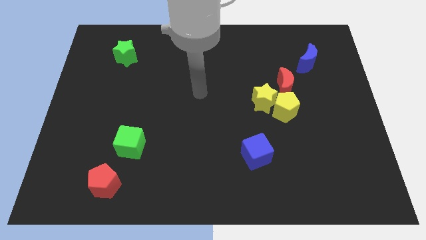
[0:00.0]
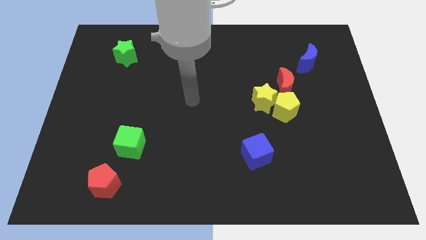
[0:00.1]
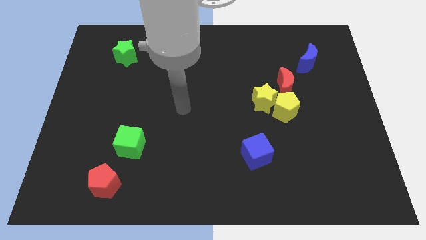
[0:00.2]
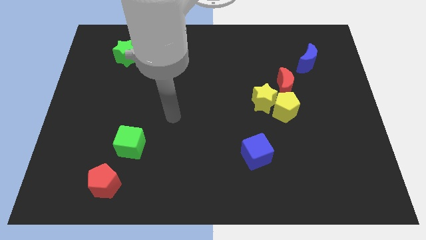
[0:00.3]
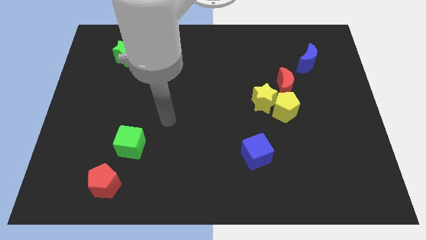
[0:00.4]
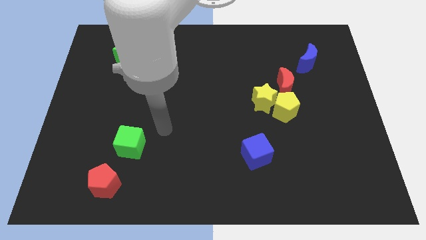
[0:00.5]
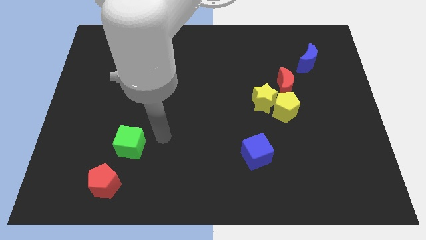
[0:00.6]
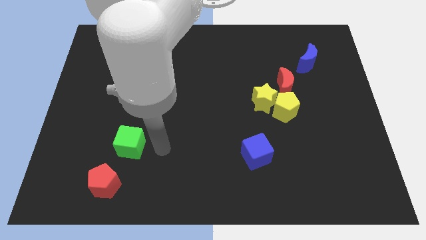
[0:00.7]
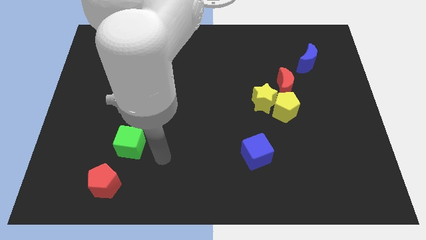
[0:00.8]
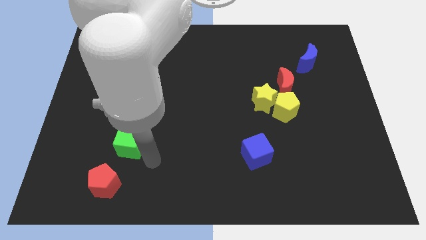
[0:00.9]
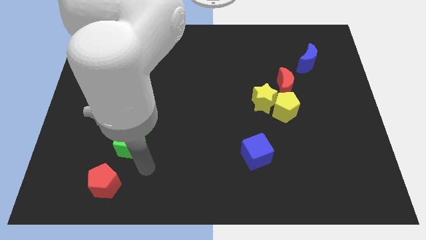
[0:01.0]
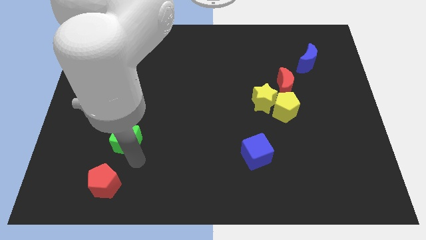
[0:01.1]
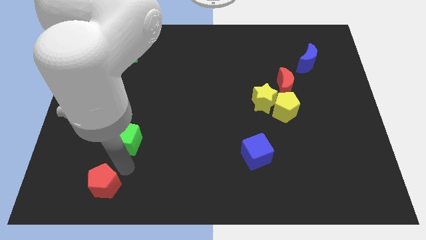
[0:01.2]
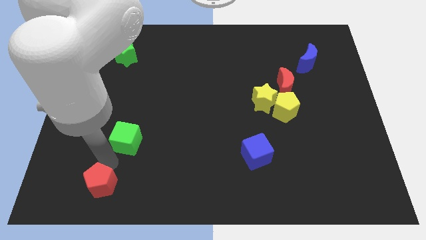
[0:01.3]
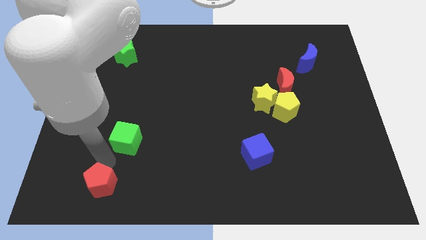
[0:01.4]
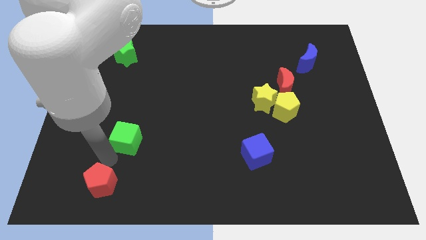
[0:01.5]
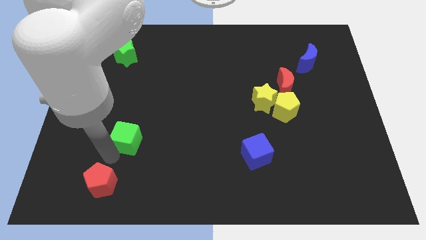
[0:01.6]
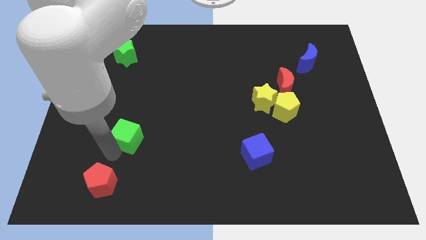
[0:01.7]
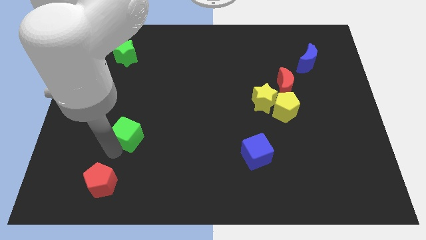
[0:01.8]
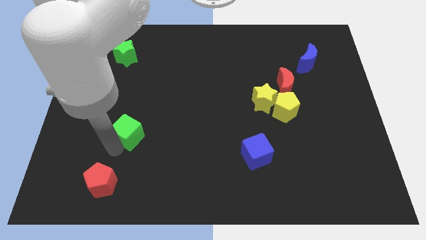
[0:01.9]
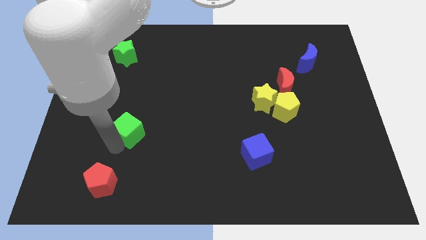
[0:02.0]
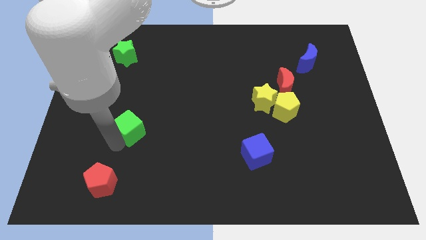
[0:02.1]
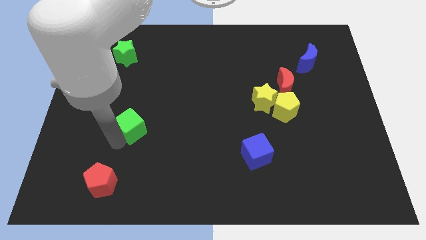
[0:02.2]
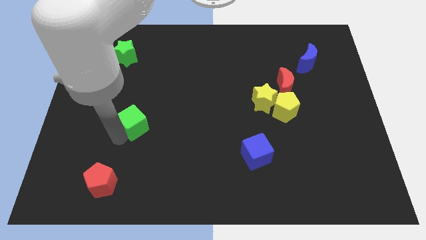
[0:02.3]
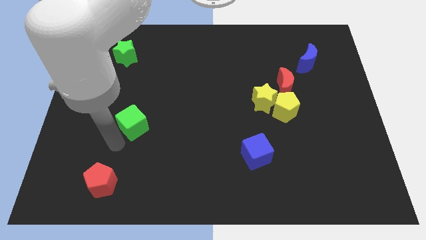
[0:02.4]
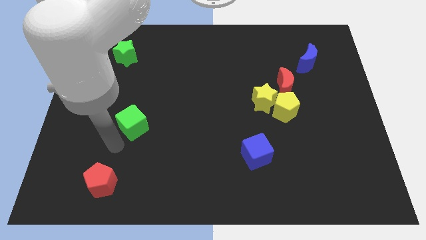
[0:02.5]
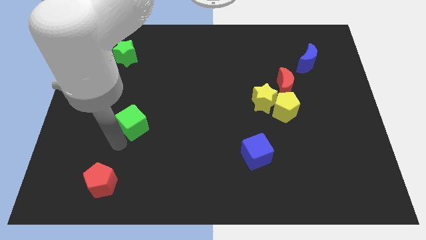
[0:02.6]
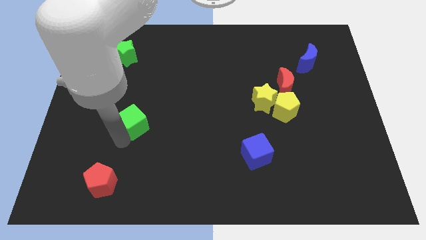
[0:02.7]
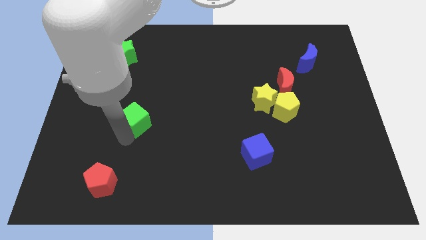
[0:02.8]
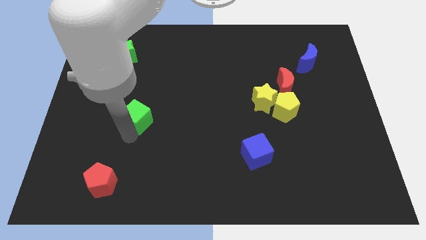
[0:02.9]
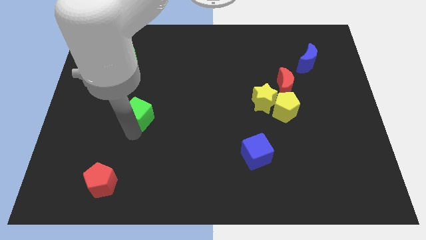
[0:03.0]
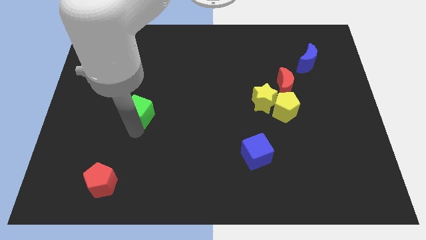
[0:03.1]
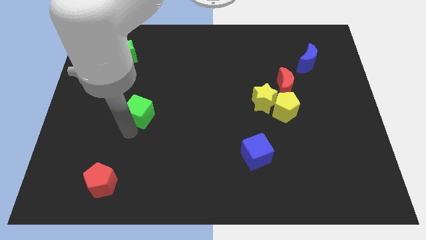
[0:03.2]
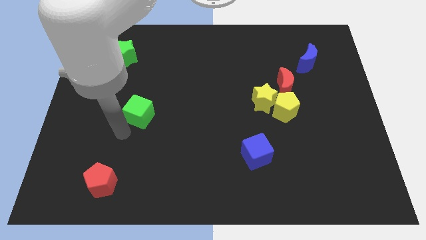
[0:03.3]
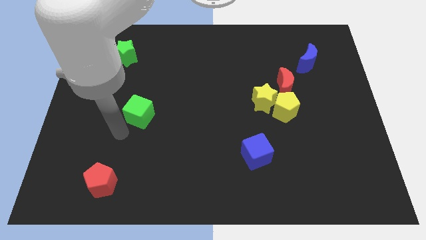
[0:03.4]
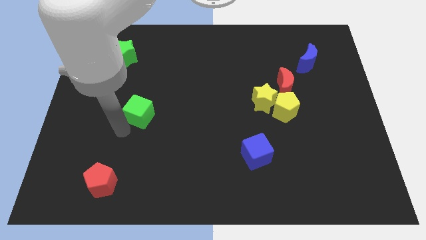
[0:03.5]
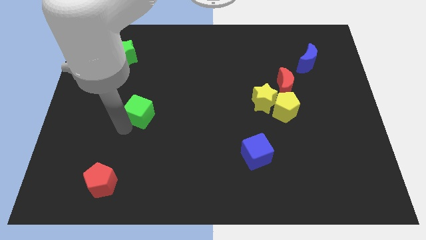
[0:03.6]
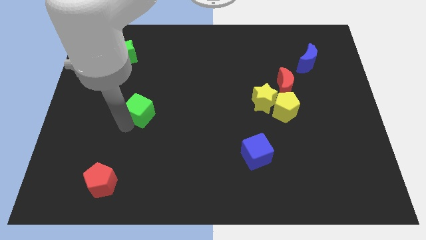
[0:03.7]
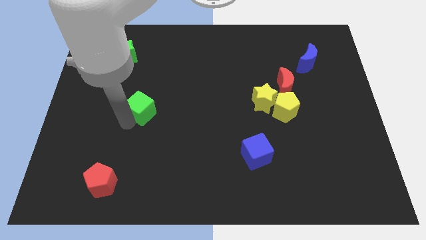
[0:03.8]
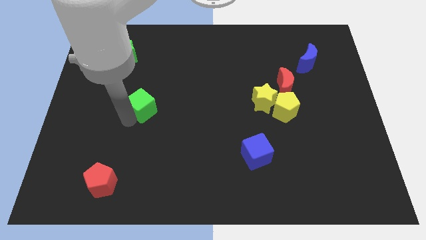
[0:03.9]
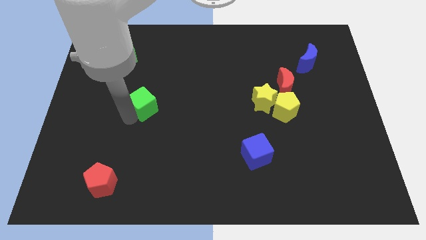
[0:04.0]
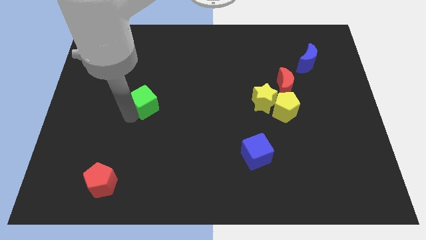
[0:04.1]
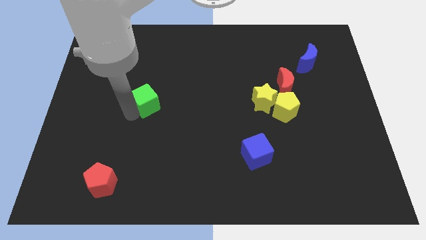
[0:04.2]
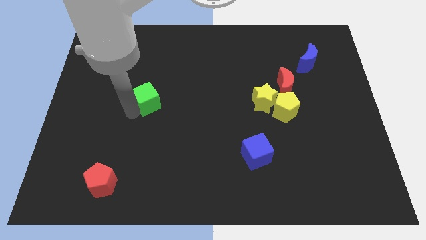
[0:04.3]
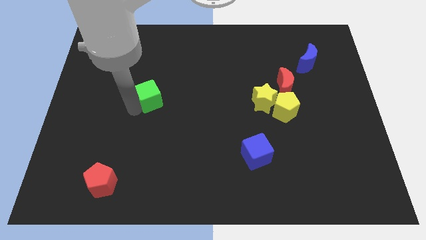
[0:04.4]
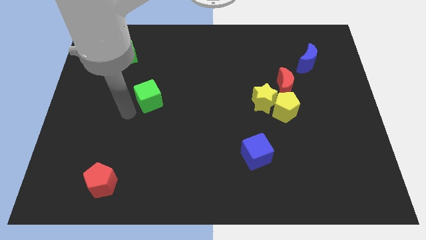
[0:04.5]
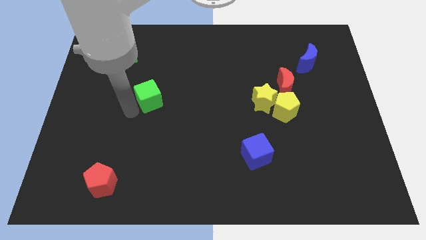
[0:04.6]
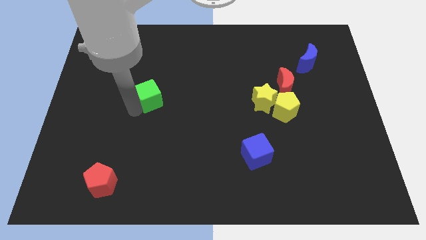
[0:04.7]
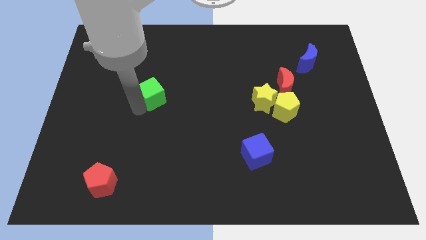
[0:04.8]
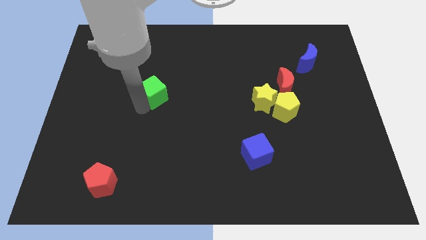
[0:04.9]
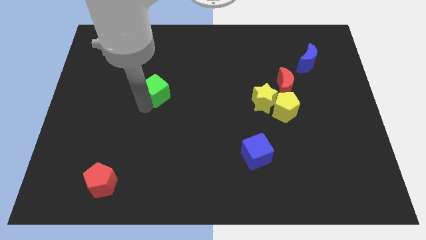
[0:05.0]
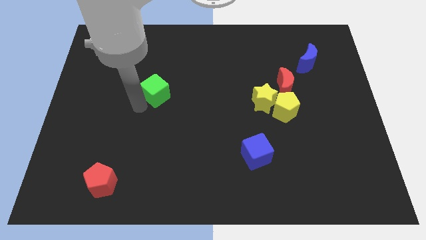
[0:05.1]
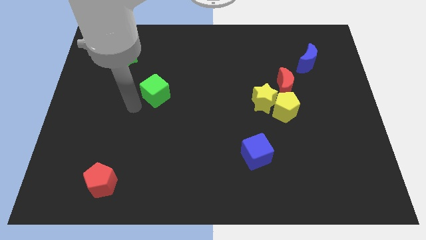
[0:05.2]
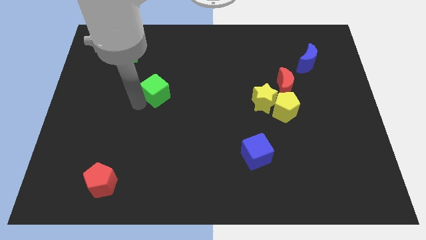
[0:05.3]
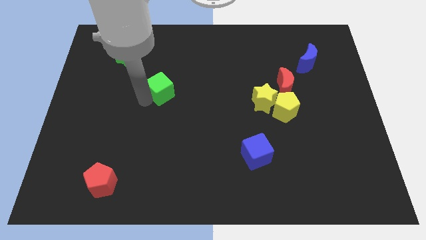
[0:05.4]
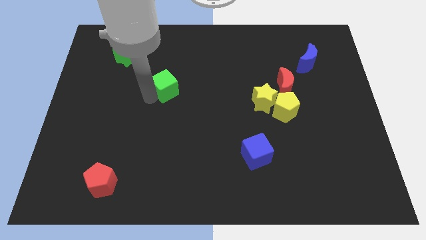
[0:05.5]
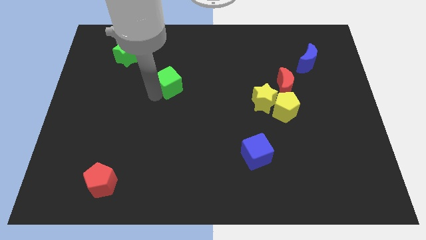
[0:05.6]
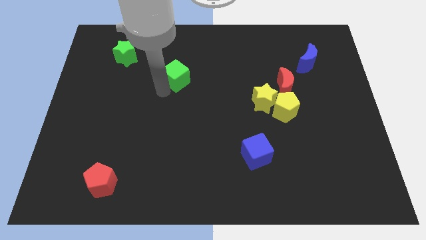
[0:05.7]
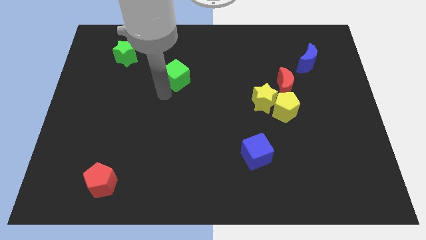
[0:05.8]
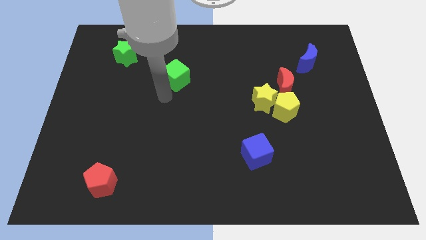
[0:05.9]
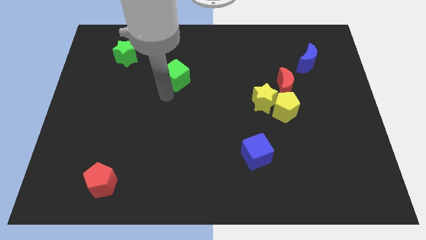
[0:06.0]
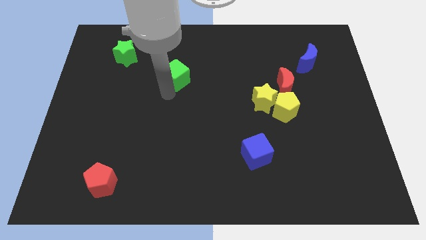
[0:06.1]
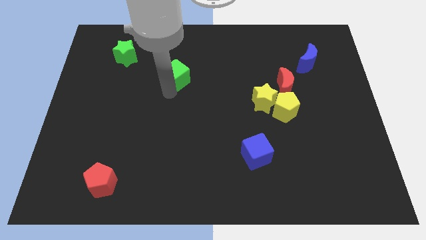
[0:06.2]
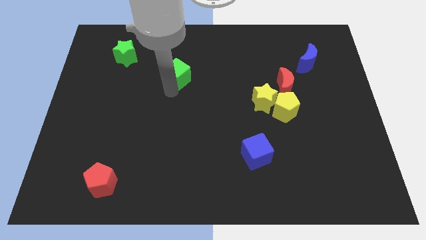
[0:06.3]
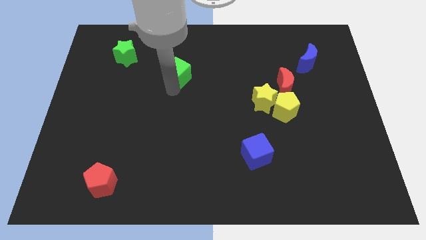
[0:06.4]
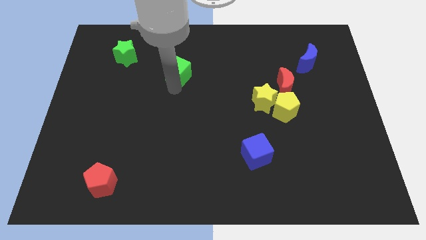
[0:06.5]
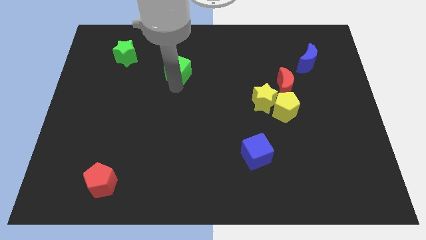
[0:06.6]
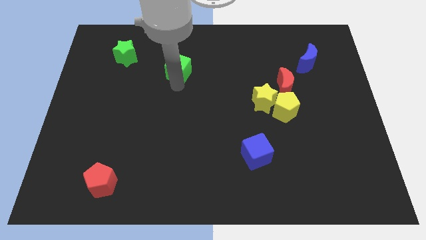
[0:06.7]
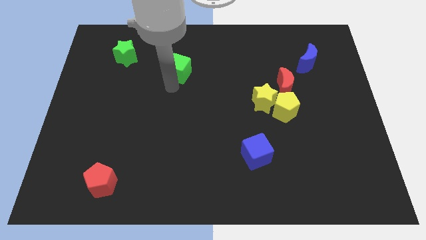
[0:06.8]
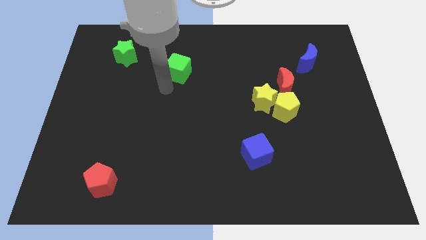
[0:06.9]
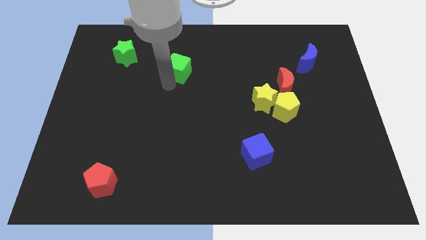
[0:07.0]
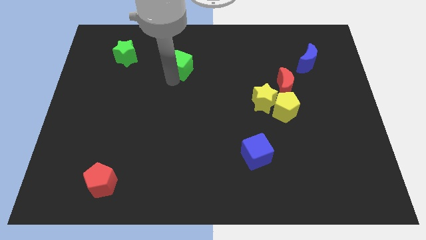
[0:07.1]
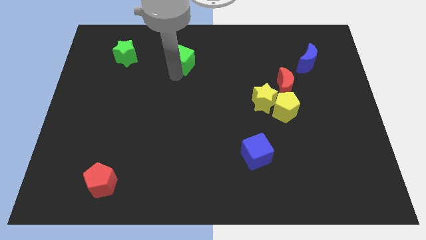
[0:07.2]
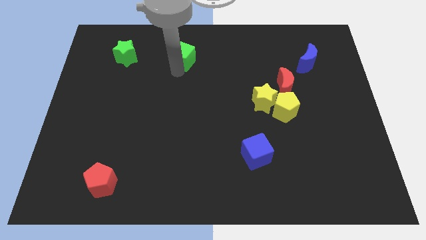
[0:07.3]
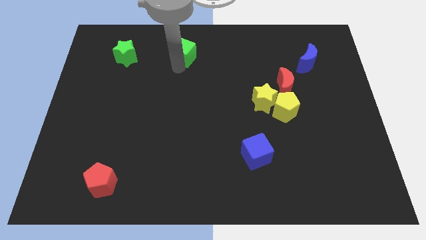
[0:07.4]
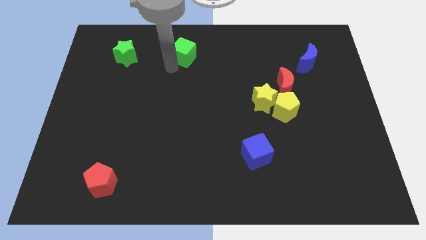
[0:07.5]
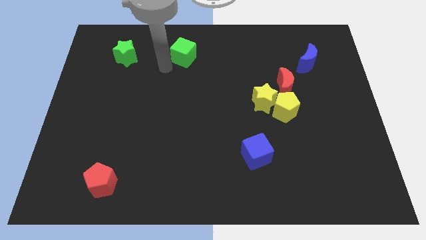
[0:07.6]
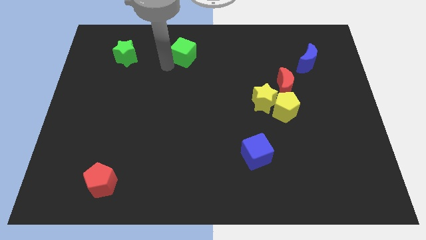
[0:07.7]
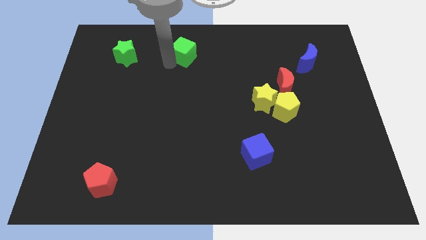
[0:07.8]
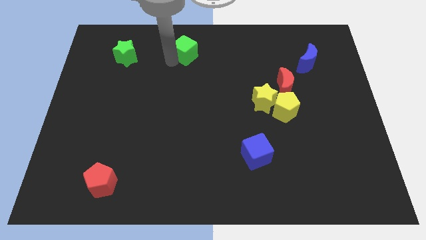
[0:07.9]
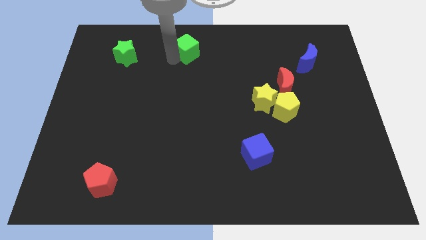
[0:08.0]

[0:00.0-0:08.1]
move the green cube to the top

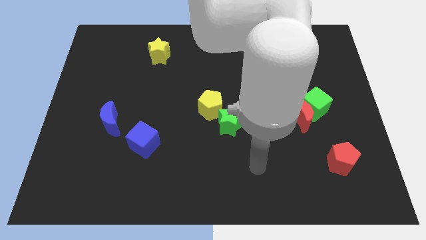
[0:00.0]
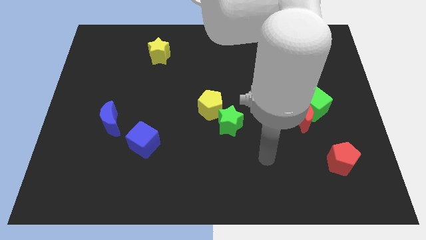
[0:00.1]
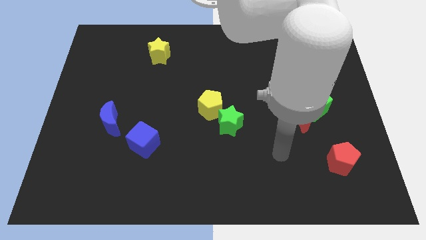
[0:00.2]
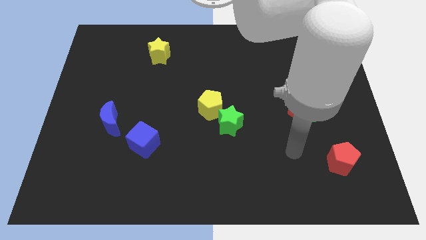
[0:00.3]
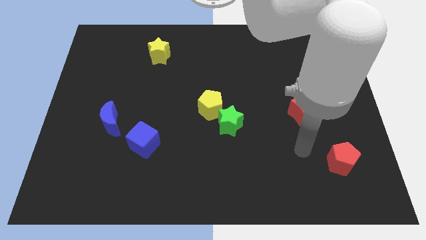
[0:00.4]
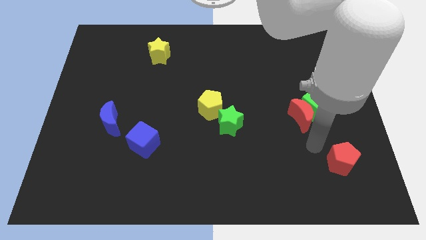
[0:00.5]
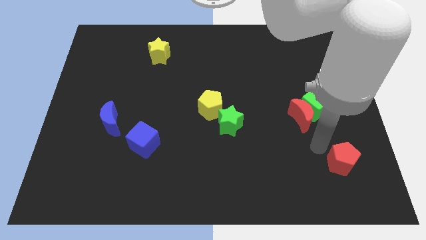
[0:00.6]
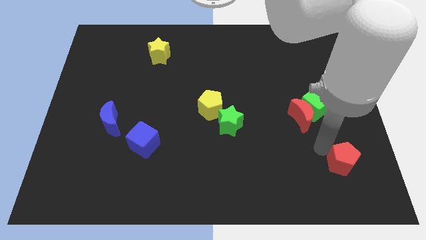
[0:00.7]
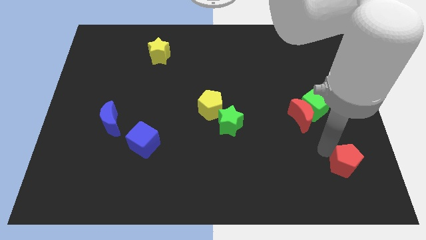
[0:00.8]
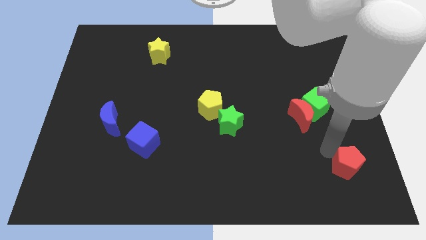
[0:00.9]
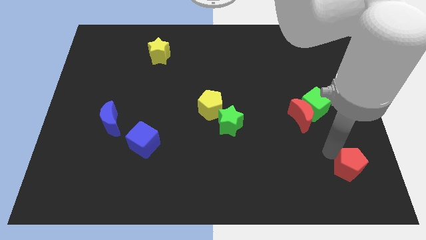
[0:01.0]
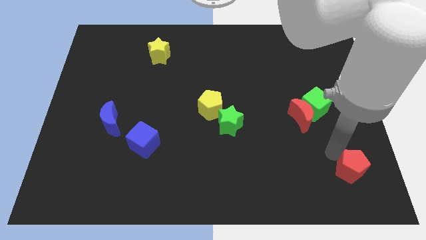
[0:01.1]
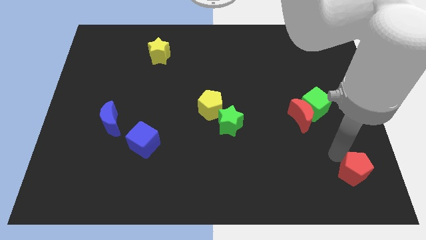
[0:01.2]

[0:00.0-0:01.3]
move the red pentagon to the bottom right
